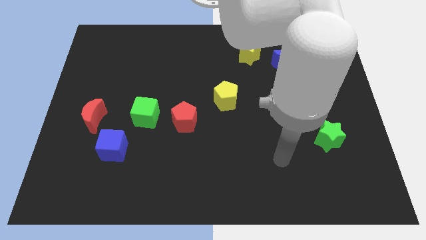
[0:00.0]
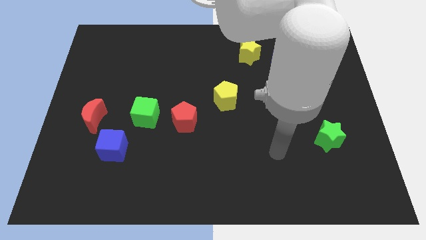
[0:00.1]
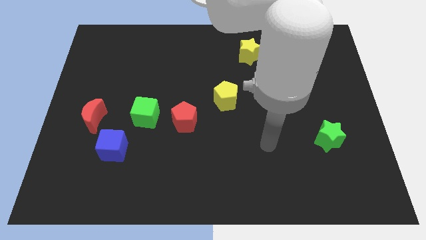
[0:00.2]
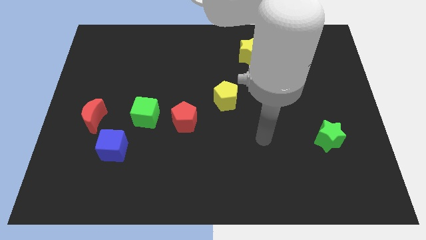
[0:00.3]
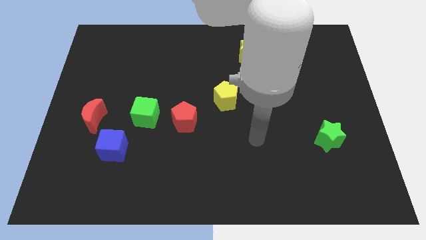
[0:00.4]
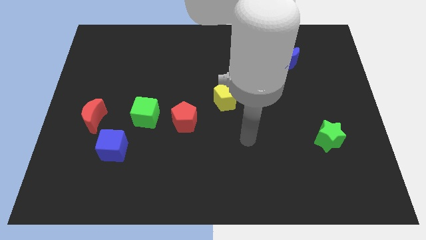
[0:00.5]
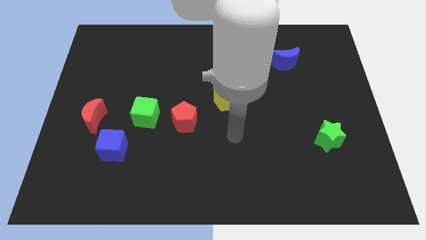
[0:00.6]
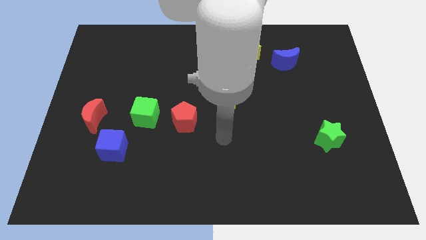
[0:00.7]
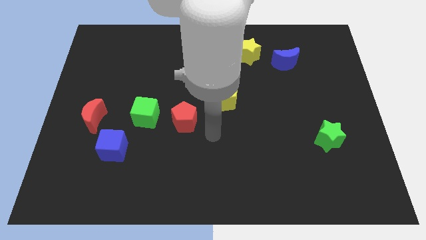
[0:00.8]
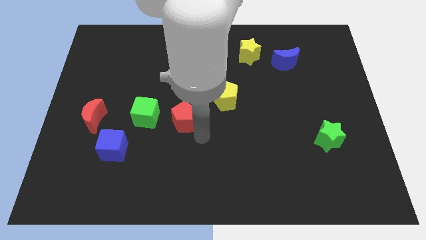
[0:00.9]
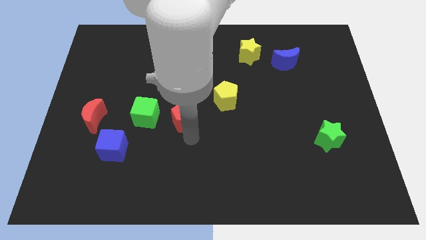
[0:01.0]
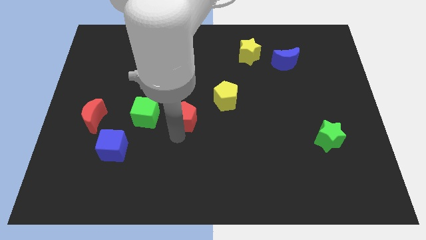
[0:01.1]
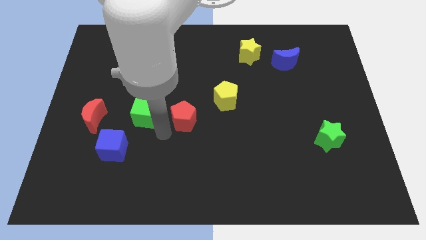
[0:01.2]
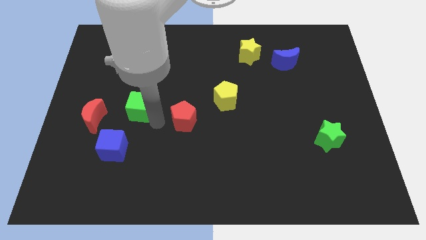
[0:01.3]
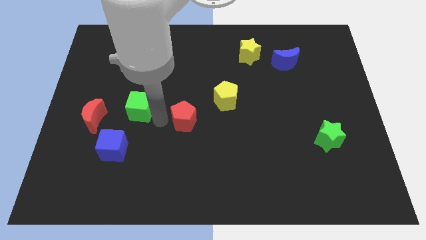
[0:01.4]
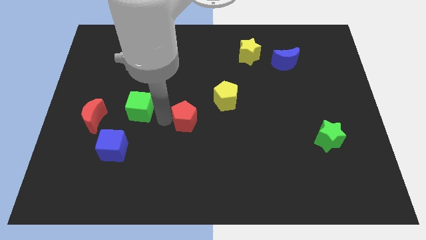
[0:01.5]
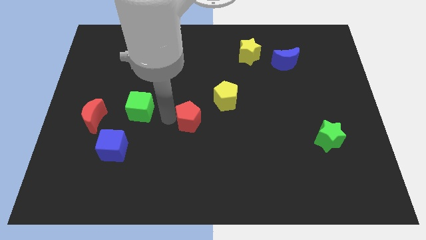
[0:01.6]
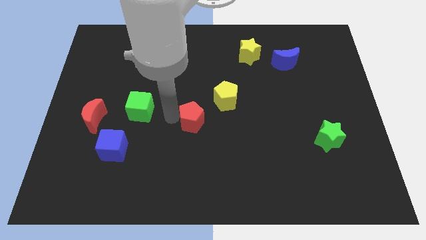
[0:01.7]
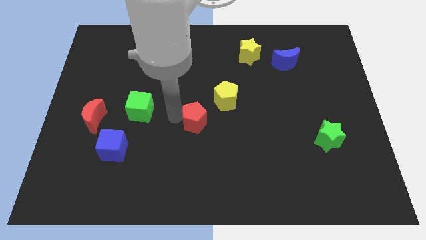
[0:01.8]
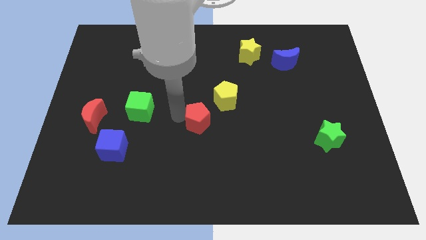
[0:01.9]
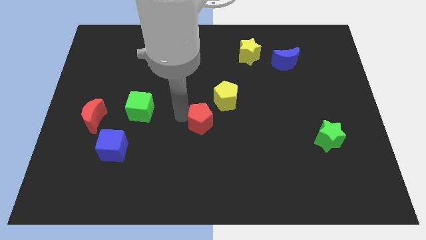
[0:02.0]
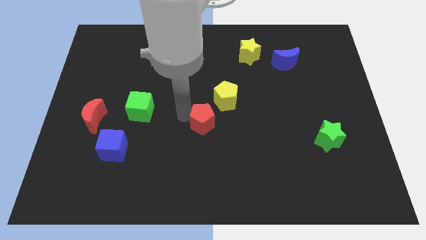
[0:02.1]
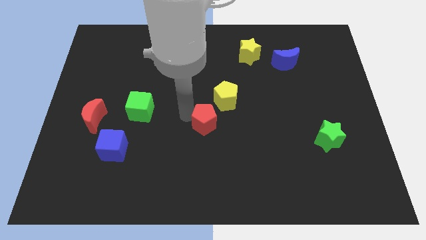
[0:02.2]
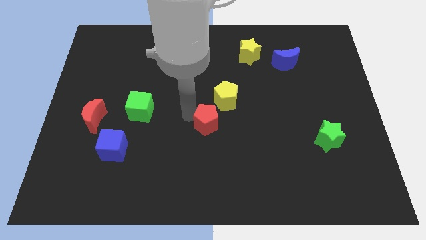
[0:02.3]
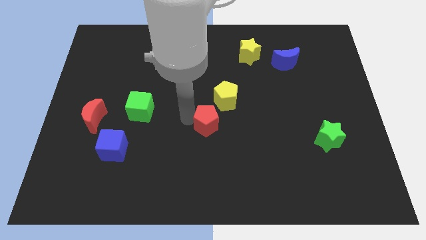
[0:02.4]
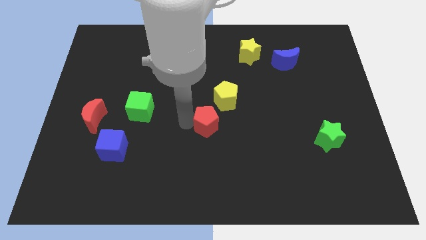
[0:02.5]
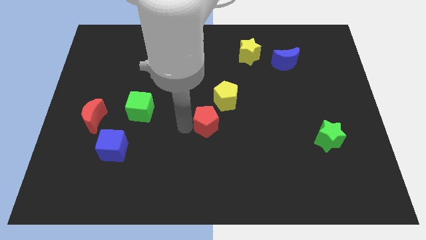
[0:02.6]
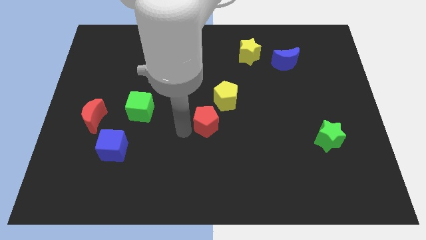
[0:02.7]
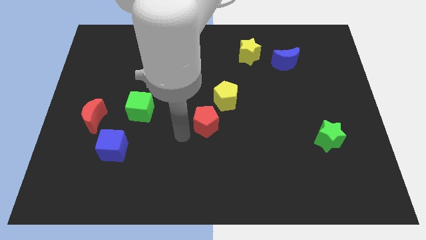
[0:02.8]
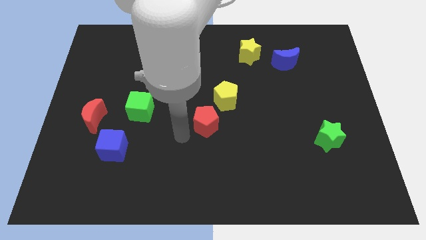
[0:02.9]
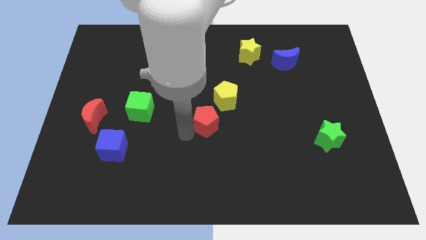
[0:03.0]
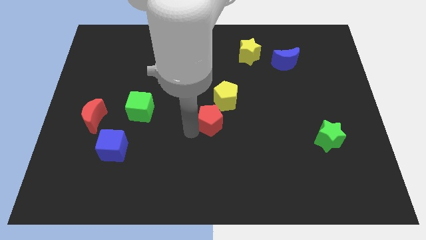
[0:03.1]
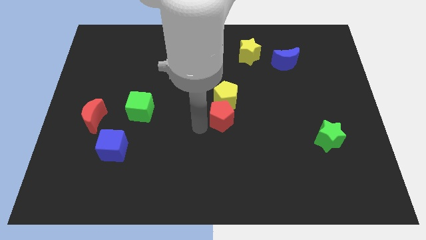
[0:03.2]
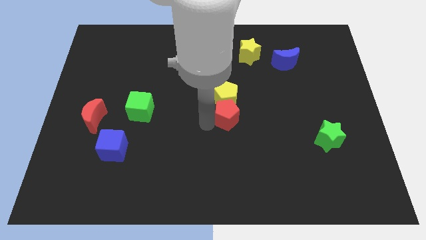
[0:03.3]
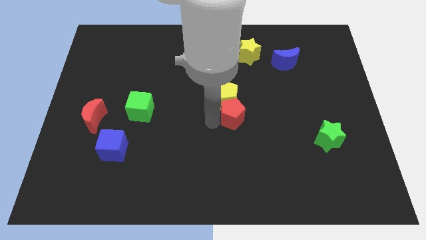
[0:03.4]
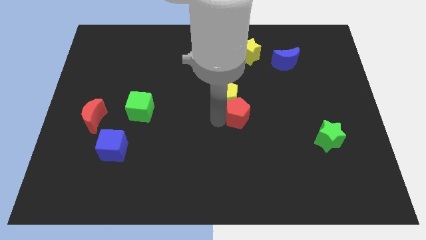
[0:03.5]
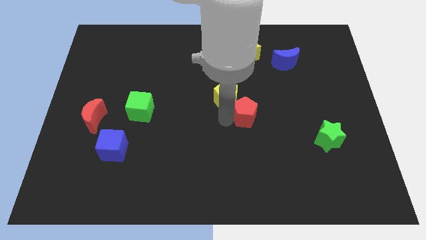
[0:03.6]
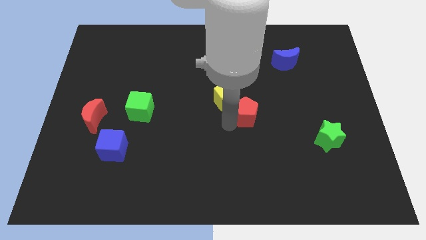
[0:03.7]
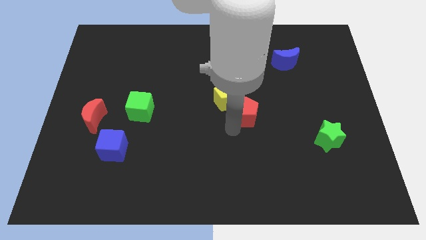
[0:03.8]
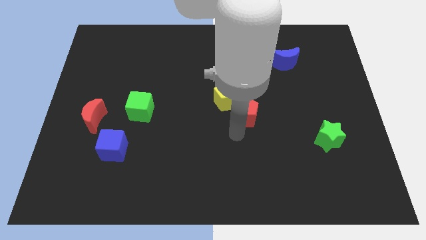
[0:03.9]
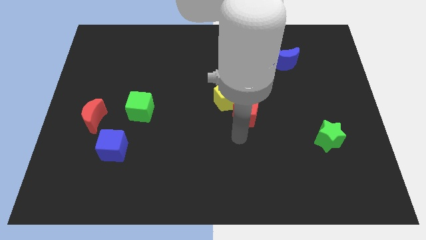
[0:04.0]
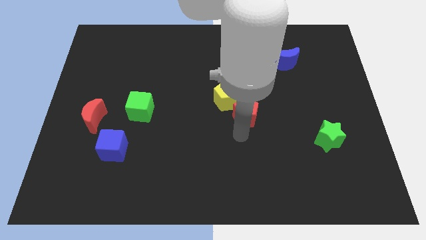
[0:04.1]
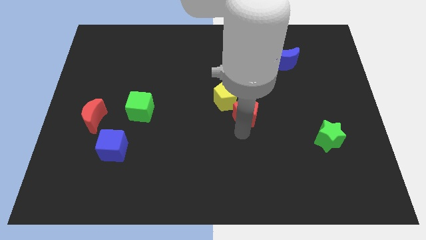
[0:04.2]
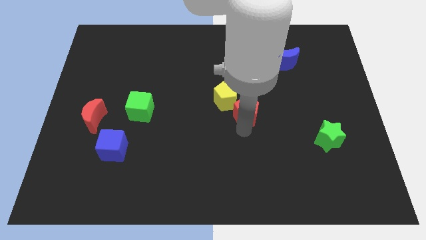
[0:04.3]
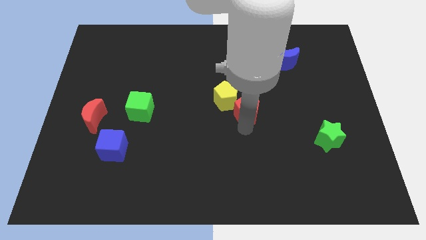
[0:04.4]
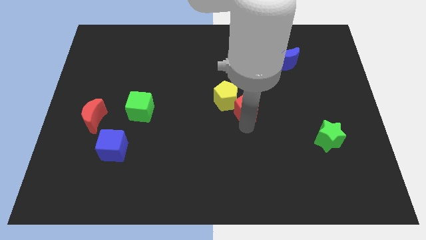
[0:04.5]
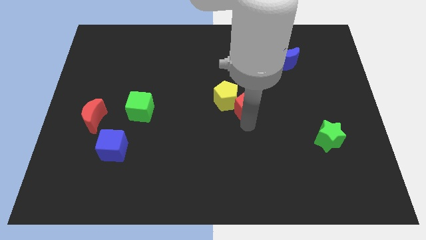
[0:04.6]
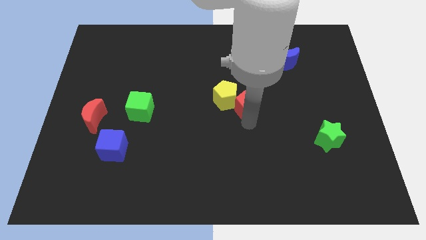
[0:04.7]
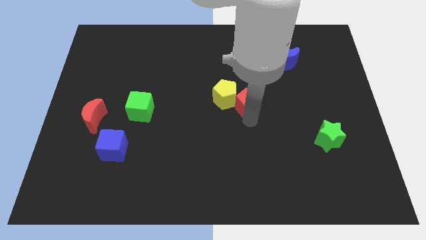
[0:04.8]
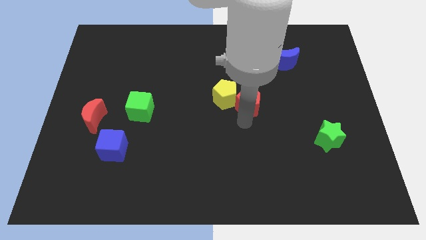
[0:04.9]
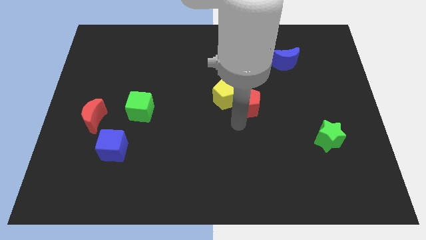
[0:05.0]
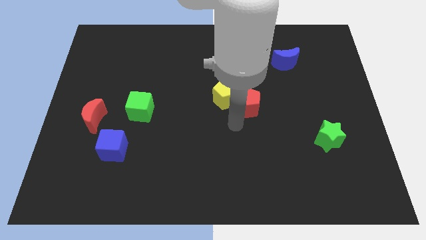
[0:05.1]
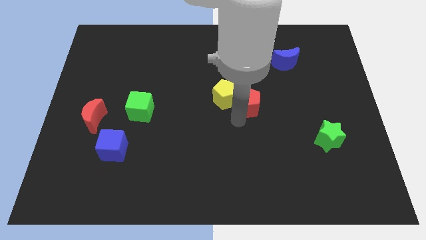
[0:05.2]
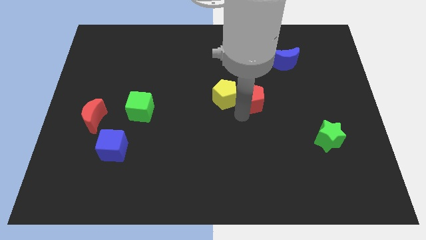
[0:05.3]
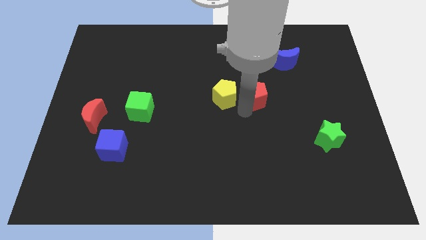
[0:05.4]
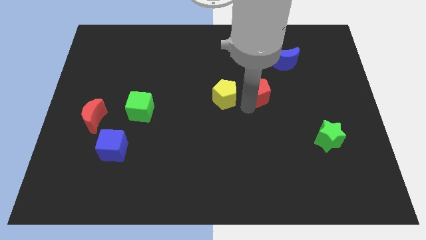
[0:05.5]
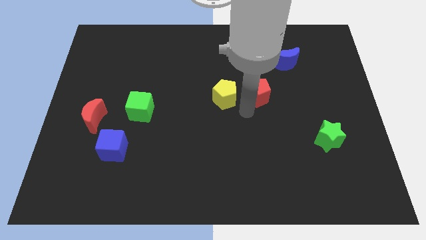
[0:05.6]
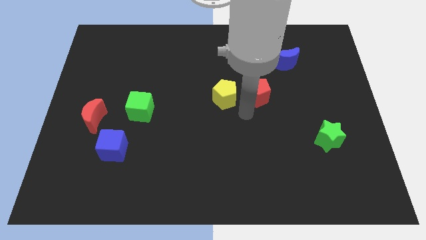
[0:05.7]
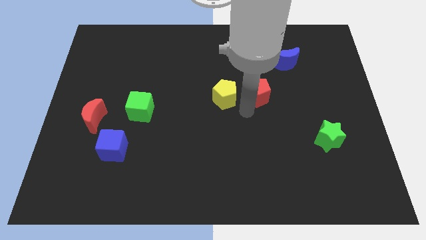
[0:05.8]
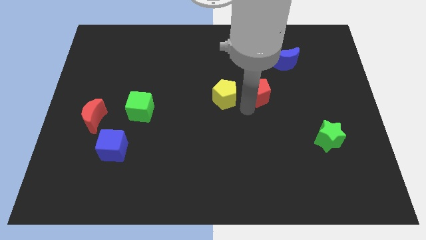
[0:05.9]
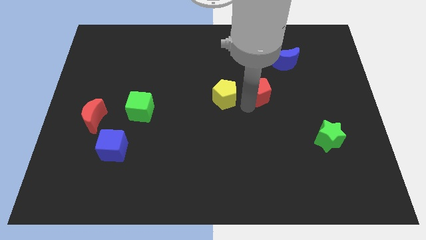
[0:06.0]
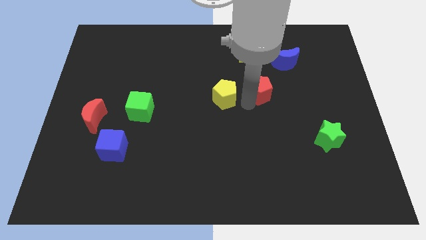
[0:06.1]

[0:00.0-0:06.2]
move the red pentagon diagonally down and to the left of the blue moon

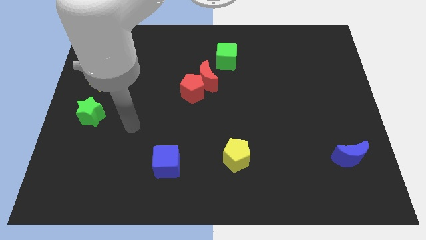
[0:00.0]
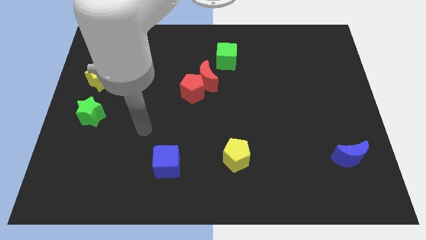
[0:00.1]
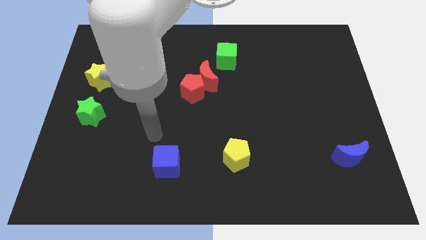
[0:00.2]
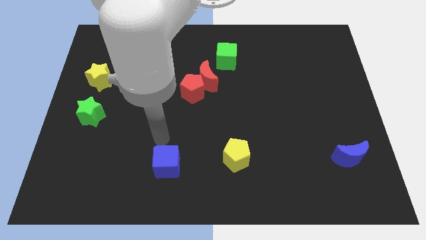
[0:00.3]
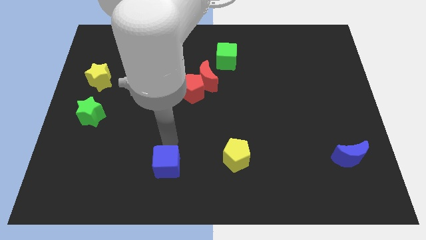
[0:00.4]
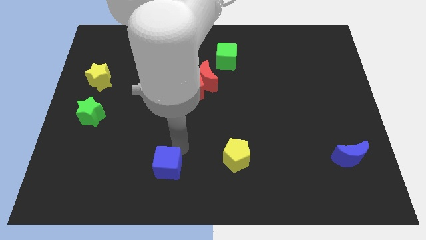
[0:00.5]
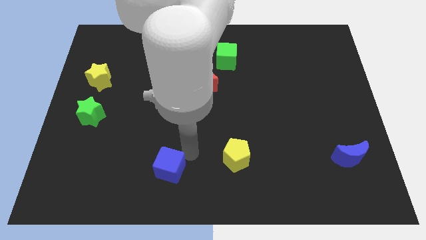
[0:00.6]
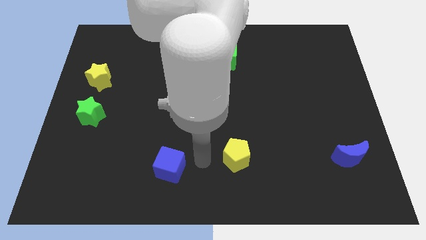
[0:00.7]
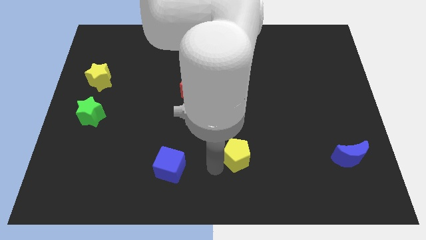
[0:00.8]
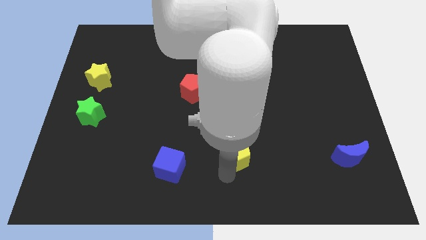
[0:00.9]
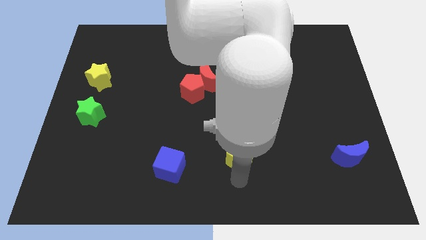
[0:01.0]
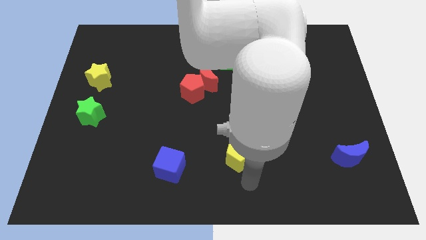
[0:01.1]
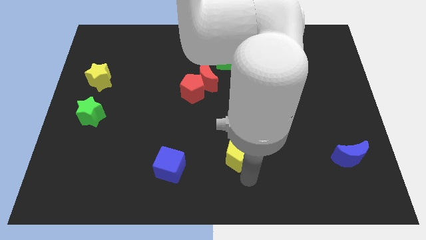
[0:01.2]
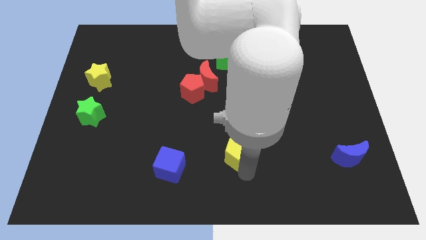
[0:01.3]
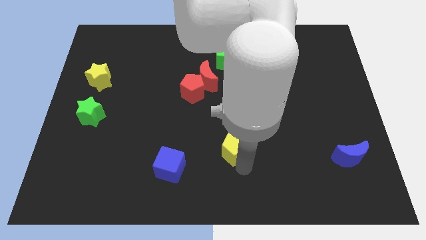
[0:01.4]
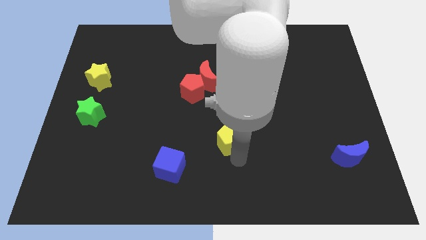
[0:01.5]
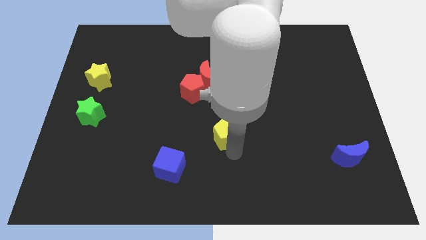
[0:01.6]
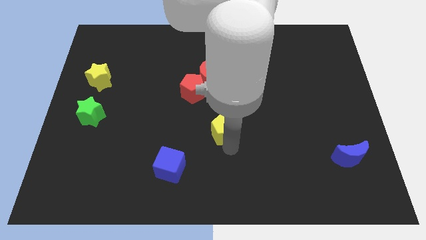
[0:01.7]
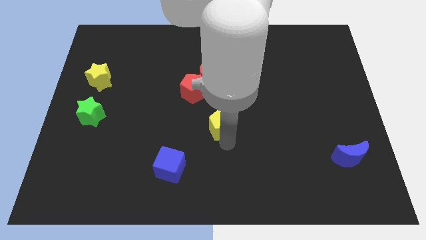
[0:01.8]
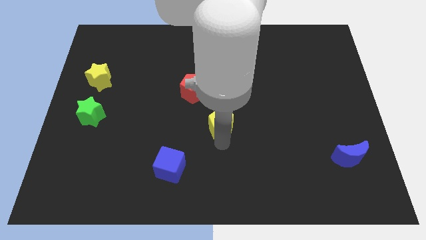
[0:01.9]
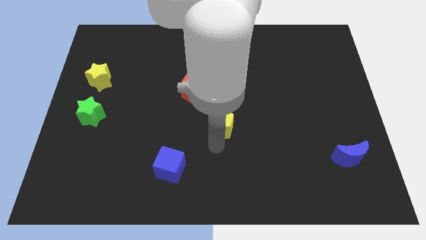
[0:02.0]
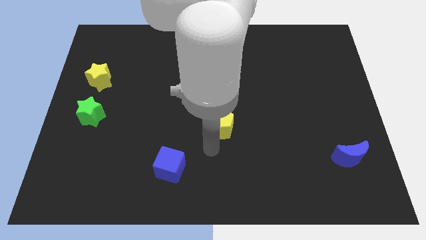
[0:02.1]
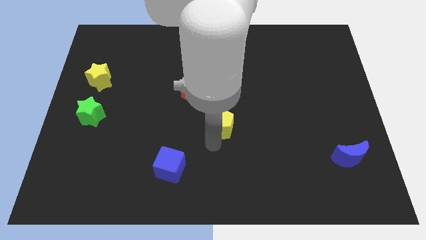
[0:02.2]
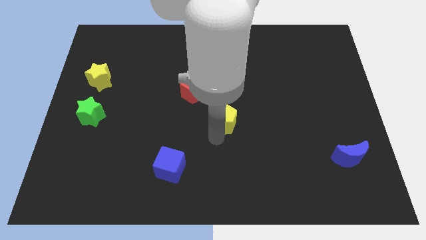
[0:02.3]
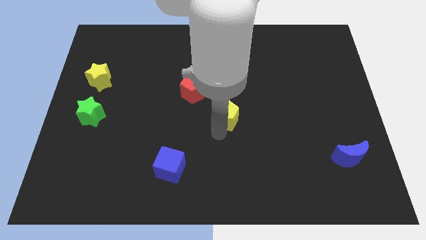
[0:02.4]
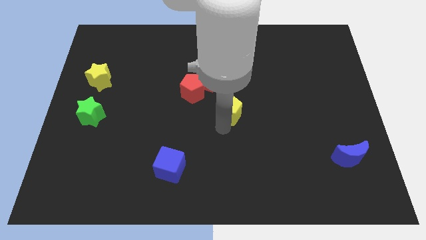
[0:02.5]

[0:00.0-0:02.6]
put the yellow pentagon to the bottom right of the red moon
